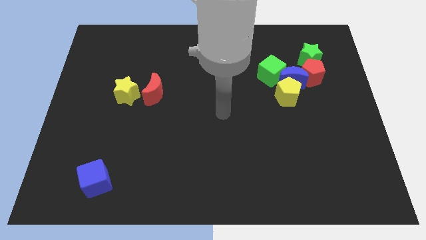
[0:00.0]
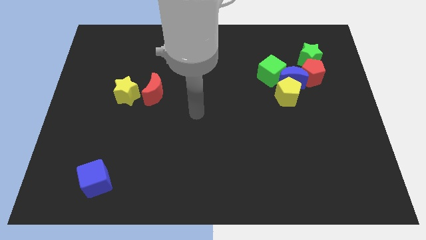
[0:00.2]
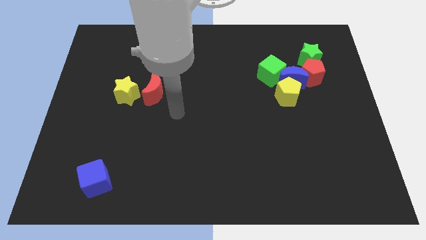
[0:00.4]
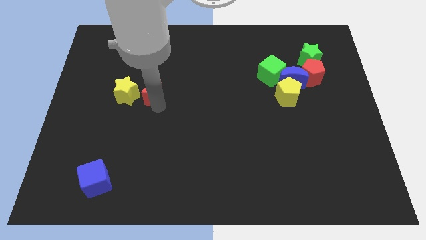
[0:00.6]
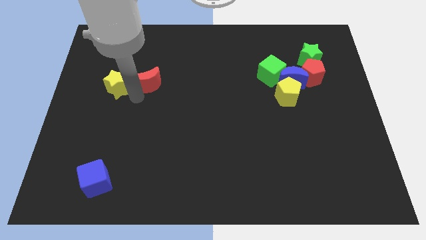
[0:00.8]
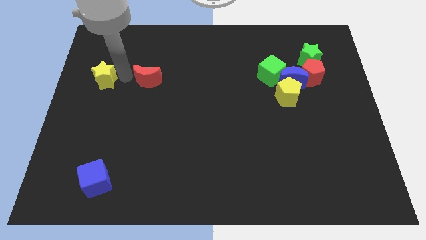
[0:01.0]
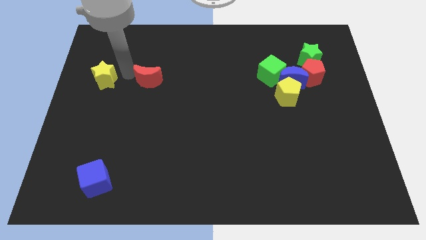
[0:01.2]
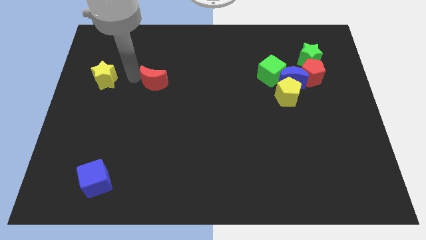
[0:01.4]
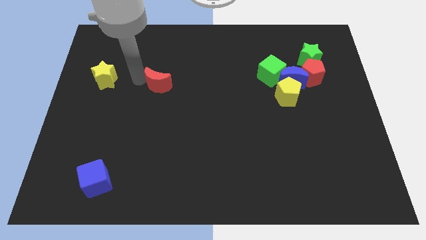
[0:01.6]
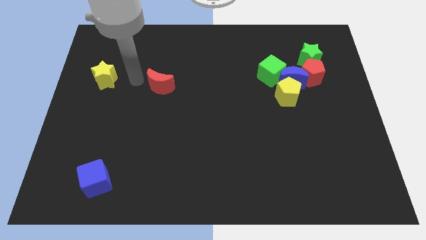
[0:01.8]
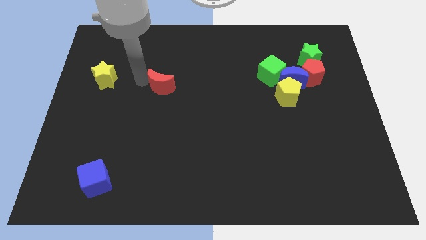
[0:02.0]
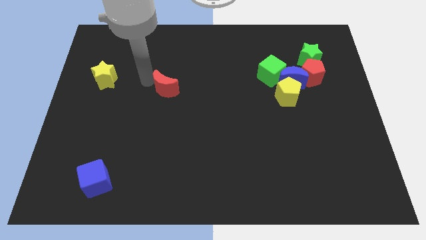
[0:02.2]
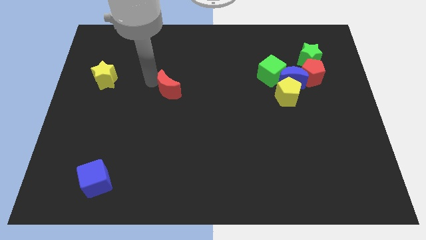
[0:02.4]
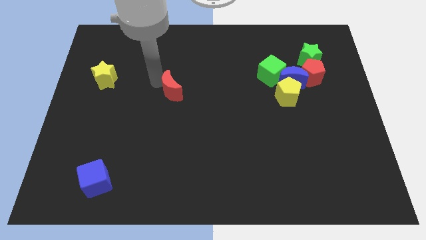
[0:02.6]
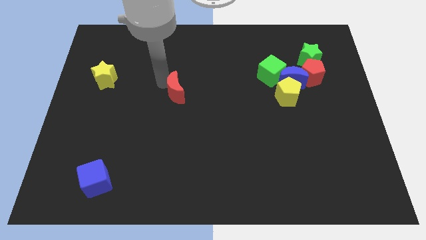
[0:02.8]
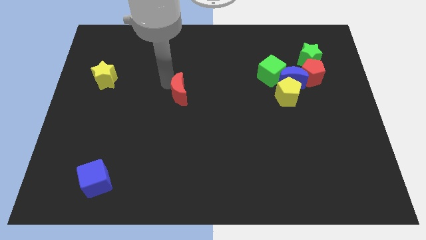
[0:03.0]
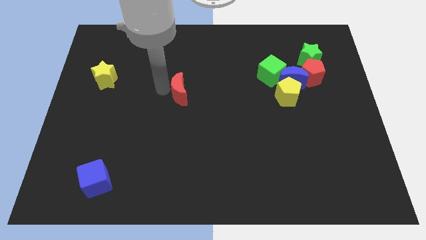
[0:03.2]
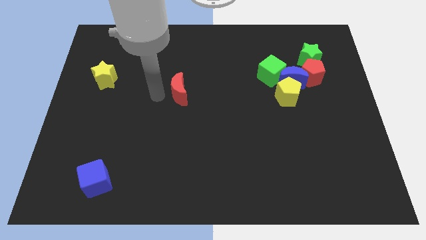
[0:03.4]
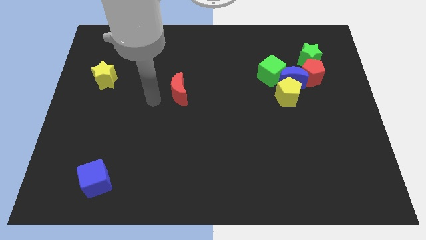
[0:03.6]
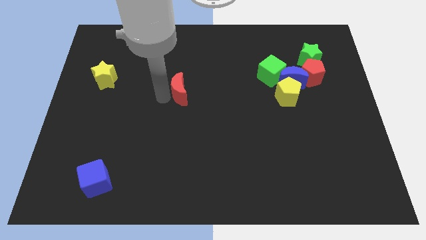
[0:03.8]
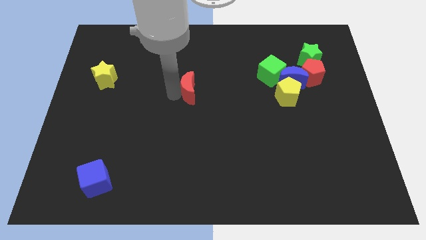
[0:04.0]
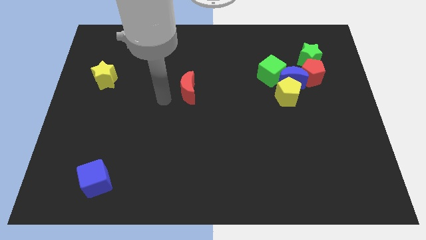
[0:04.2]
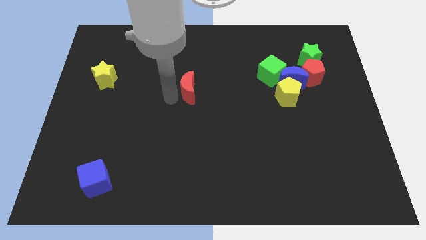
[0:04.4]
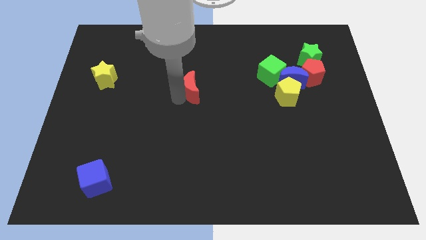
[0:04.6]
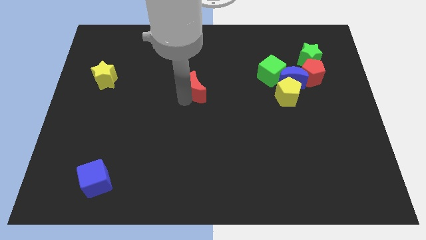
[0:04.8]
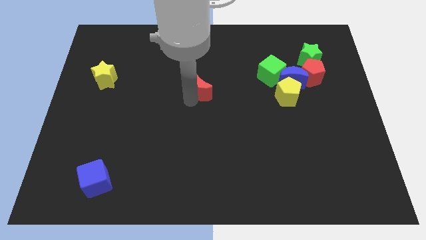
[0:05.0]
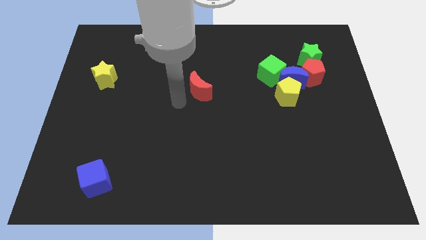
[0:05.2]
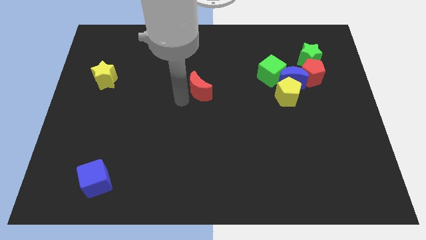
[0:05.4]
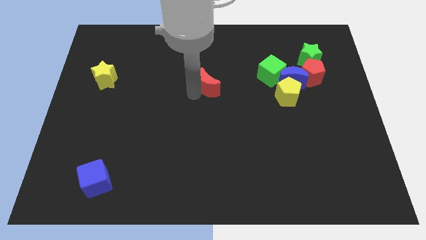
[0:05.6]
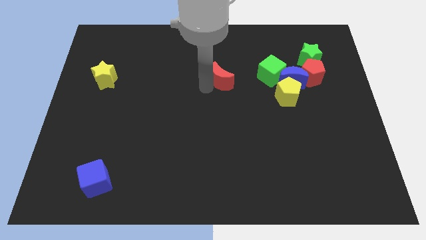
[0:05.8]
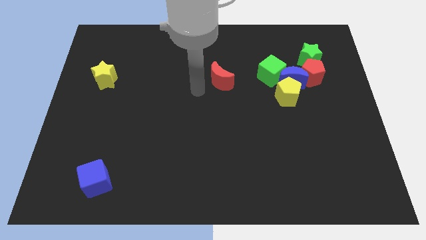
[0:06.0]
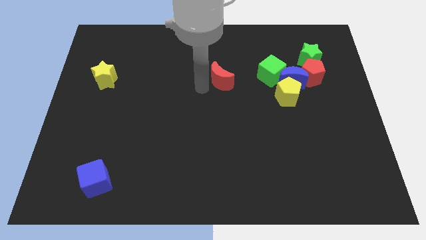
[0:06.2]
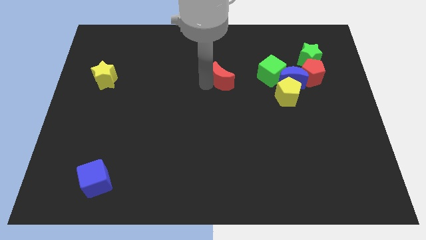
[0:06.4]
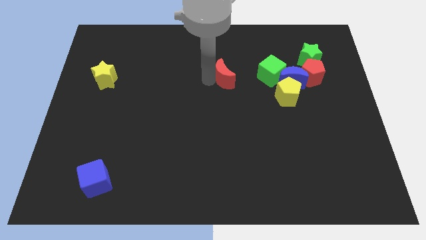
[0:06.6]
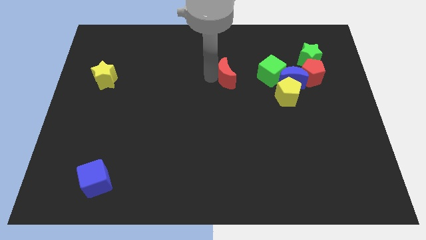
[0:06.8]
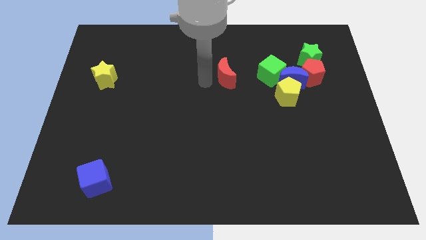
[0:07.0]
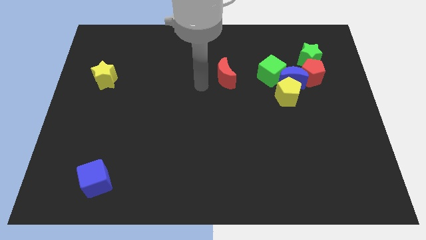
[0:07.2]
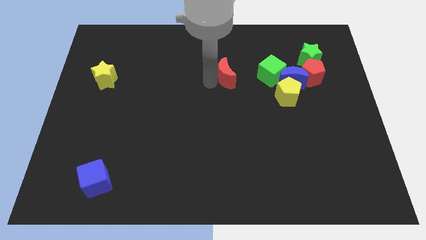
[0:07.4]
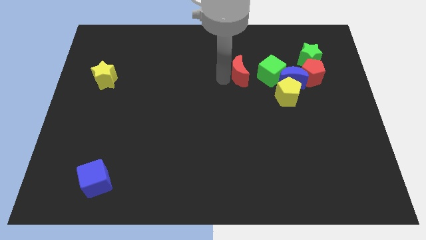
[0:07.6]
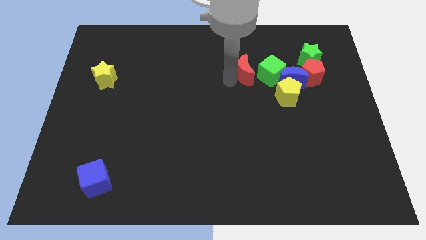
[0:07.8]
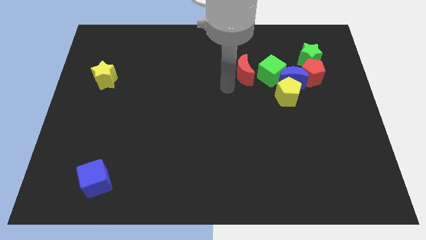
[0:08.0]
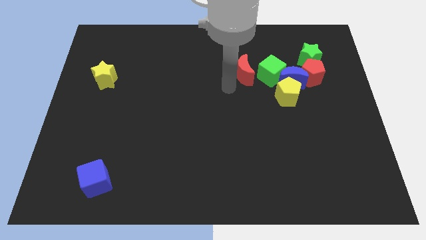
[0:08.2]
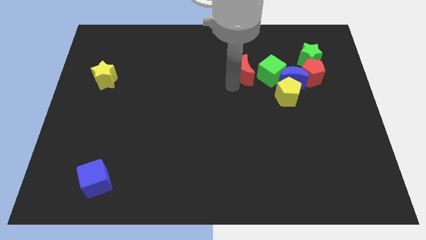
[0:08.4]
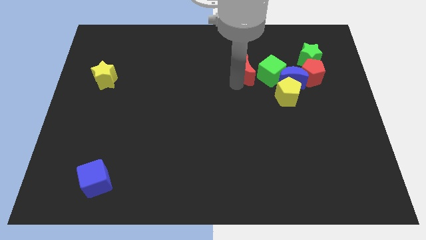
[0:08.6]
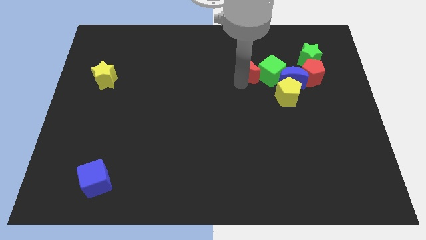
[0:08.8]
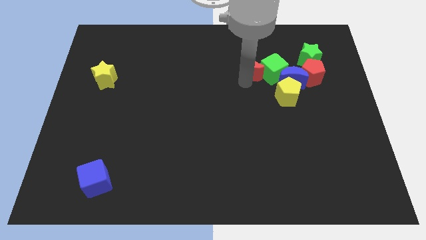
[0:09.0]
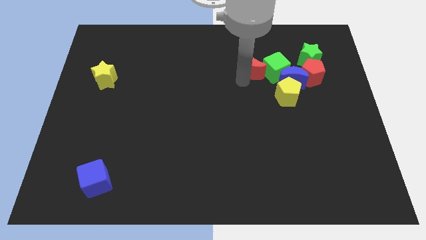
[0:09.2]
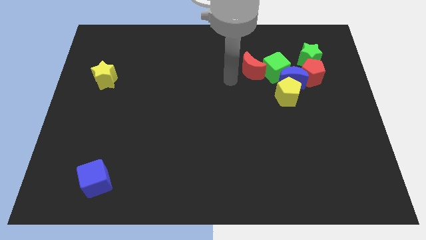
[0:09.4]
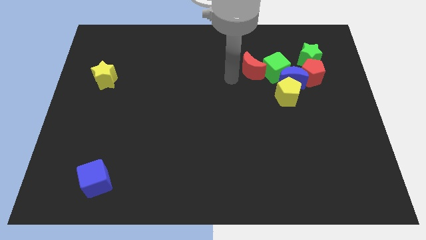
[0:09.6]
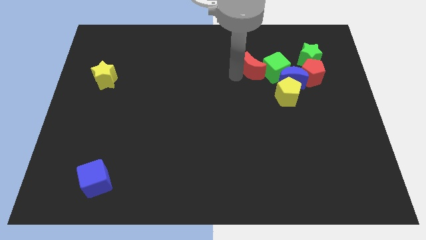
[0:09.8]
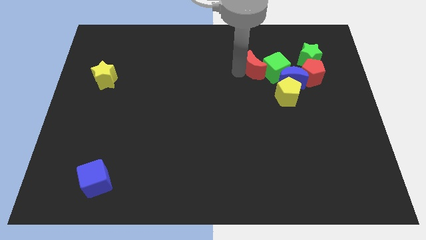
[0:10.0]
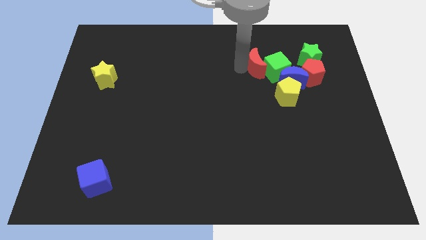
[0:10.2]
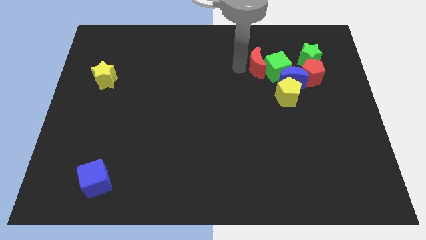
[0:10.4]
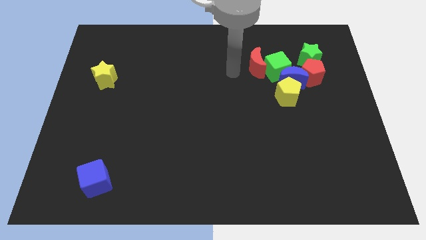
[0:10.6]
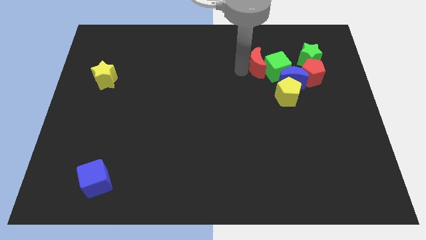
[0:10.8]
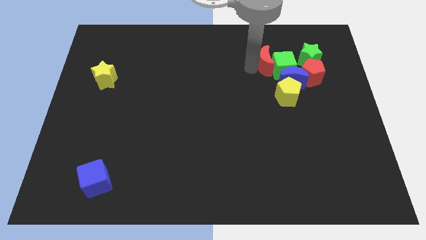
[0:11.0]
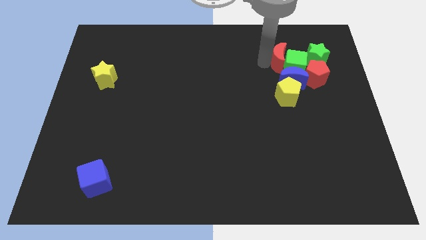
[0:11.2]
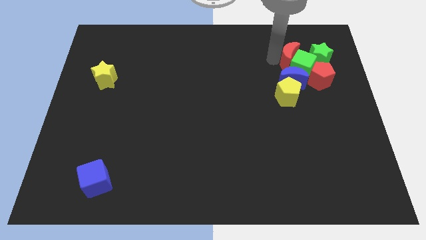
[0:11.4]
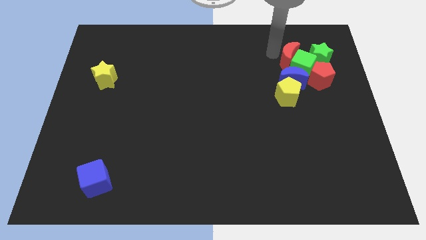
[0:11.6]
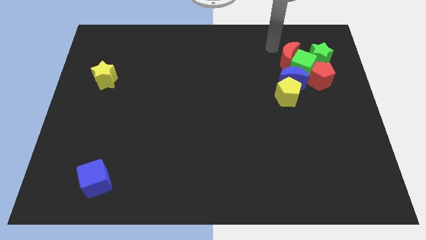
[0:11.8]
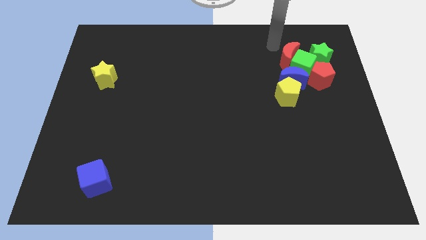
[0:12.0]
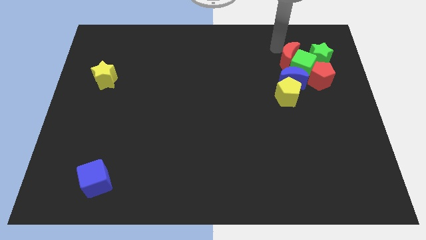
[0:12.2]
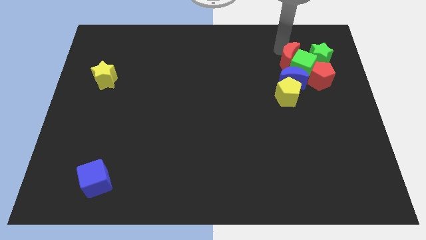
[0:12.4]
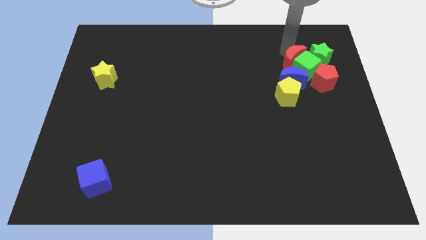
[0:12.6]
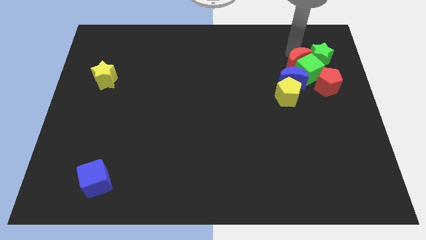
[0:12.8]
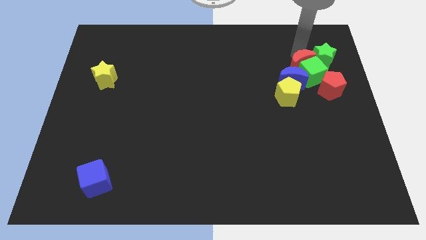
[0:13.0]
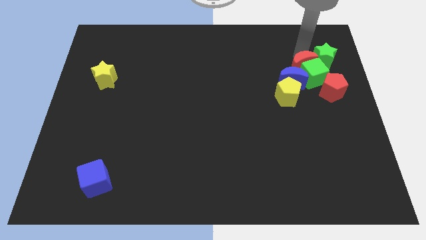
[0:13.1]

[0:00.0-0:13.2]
put the red moon close to the blue moon

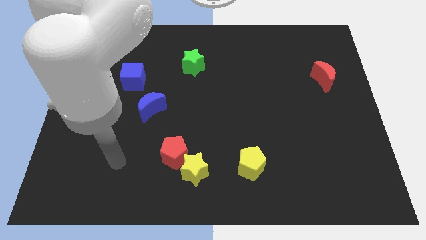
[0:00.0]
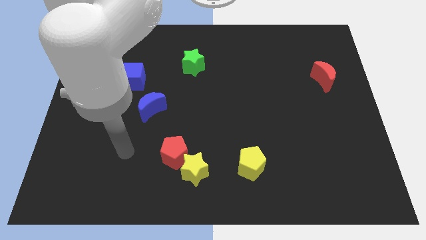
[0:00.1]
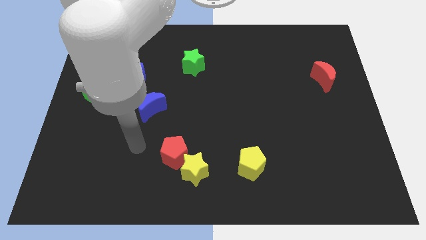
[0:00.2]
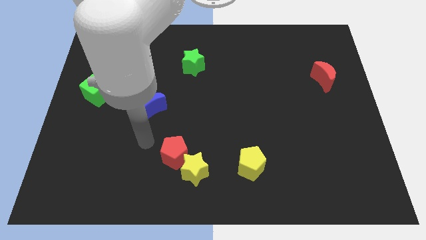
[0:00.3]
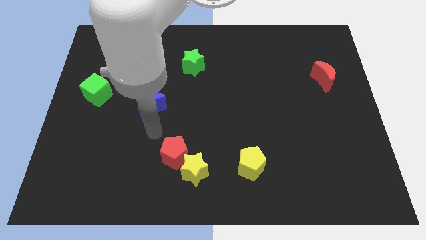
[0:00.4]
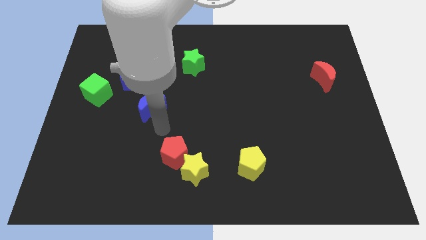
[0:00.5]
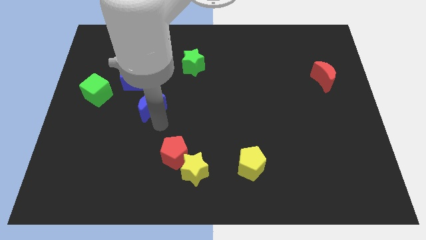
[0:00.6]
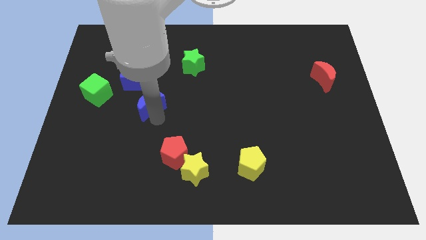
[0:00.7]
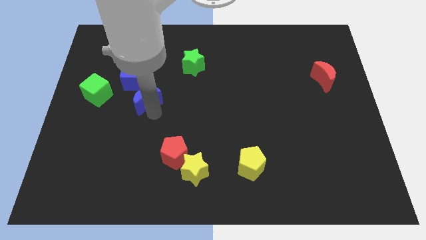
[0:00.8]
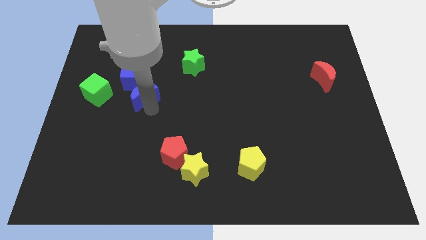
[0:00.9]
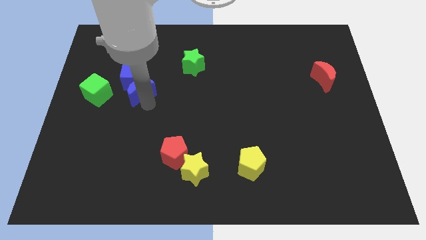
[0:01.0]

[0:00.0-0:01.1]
put the blue moon close to the blue cube
